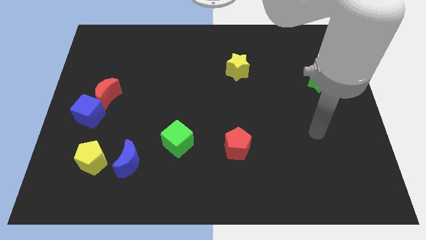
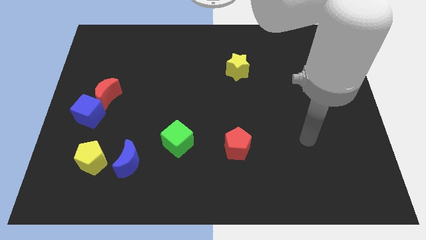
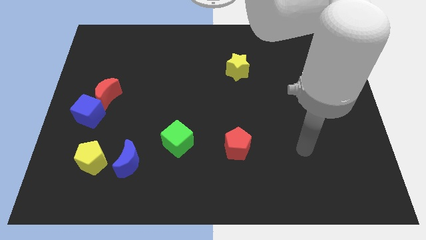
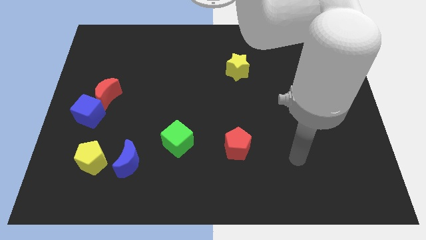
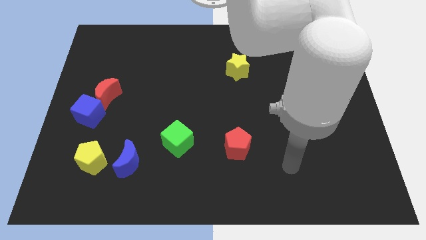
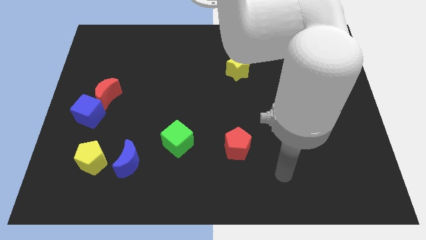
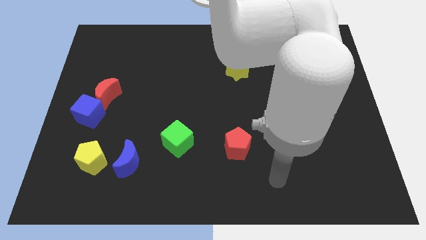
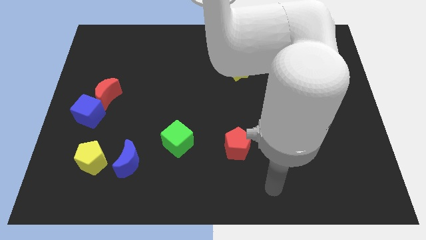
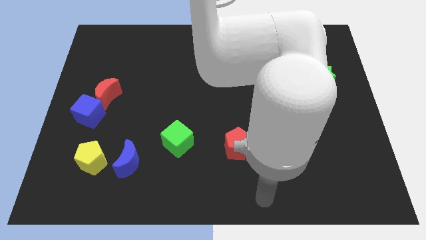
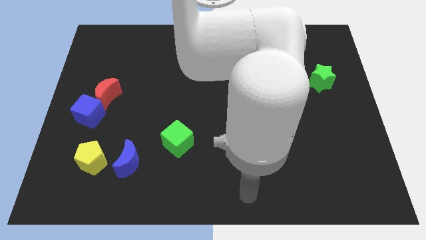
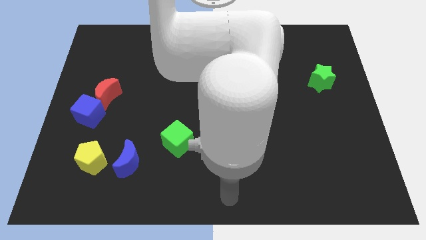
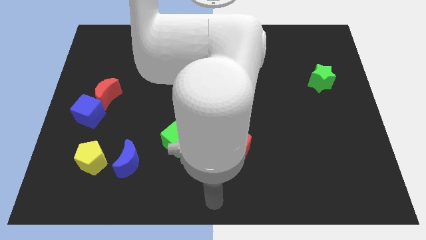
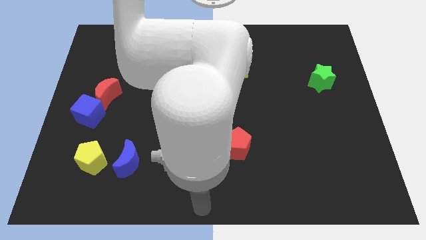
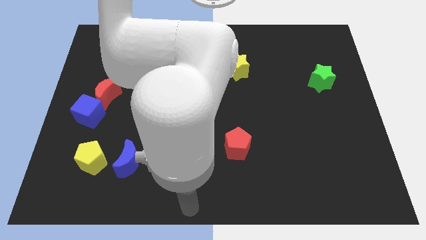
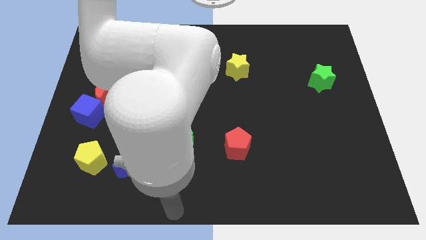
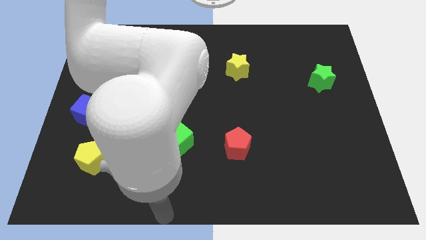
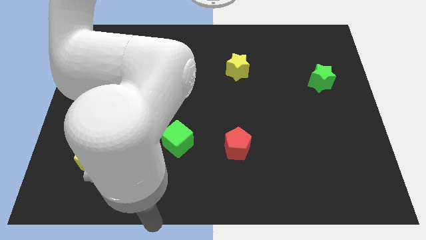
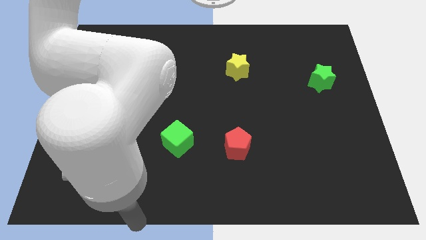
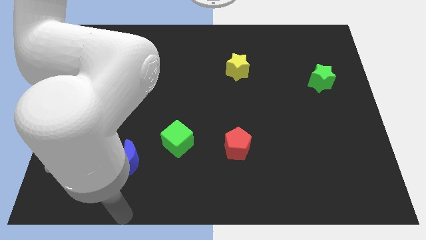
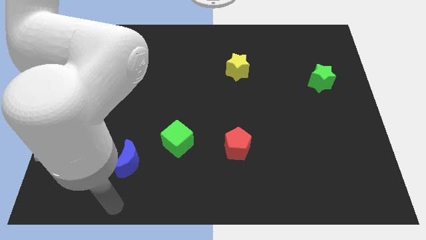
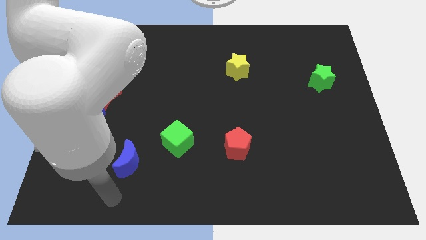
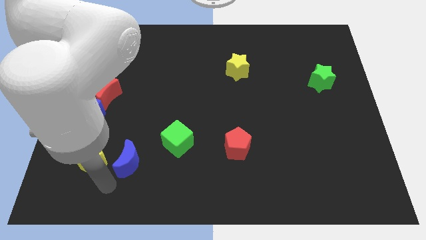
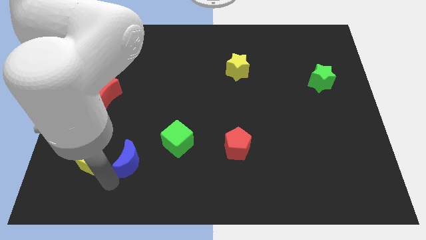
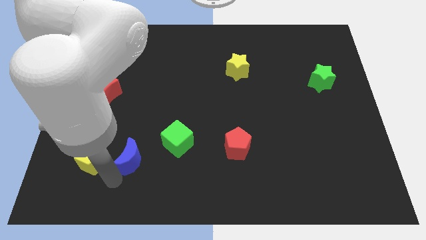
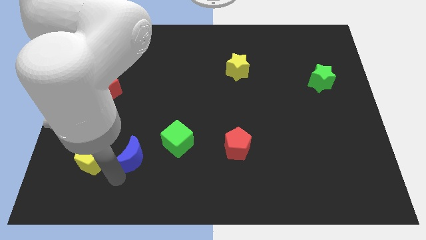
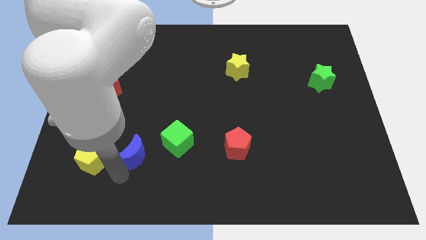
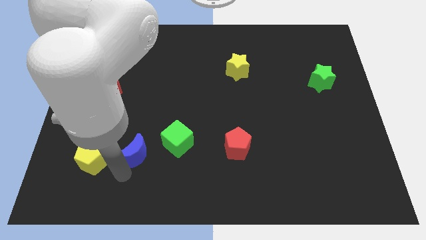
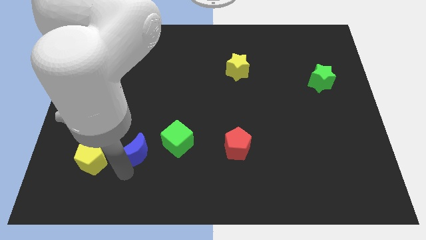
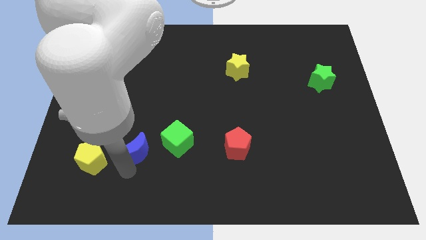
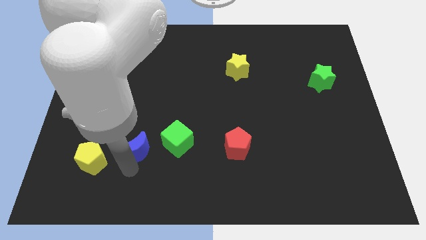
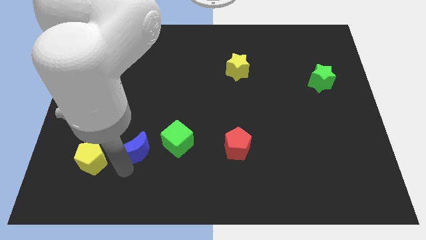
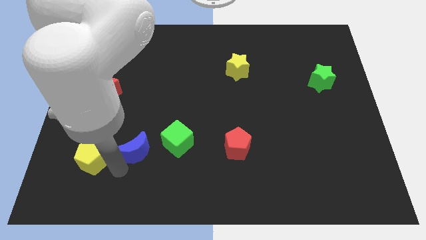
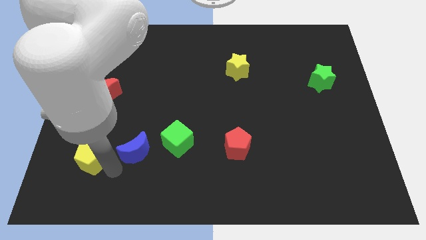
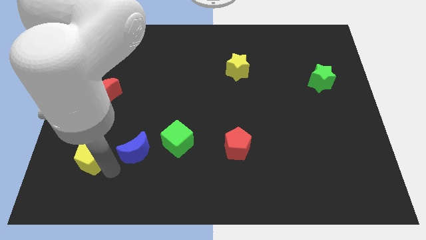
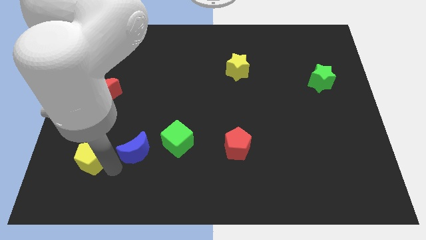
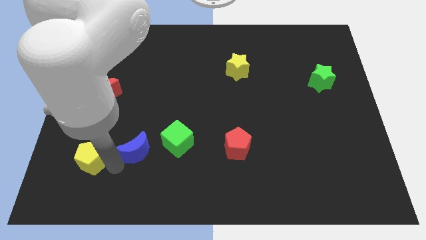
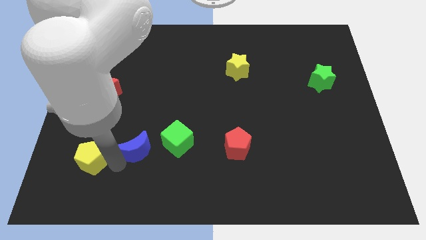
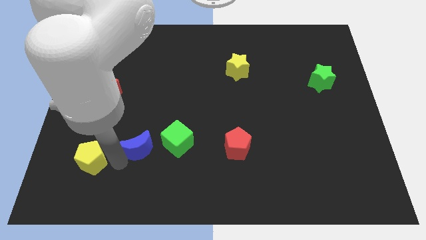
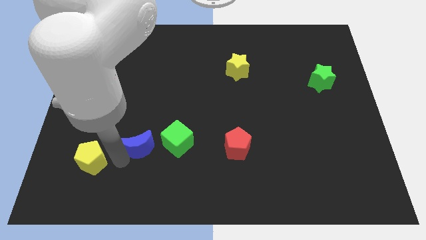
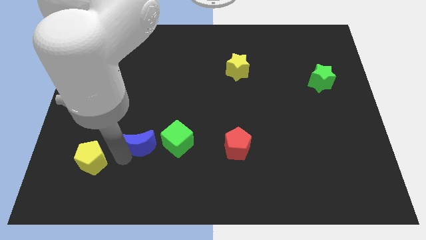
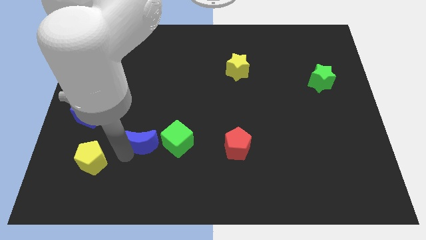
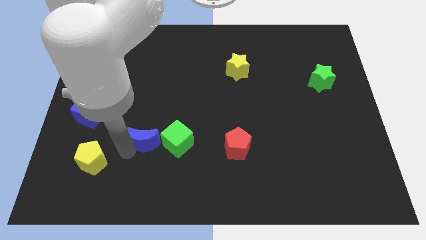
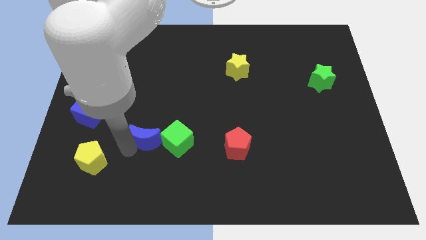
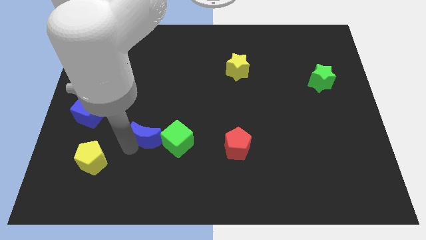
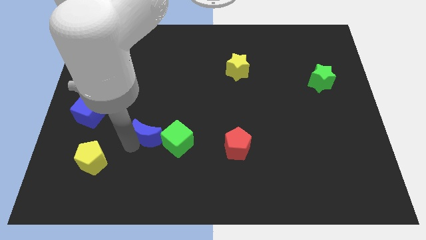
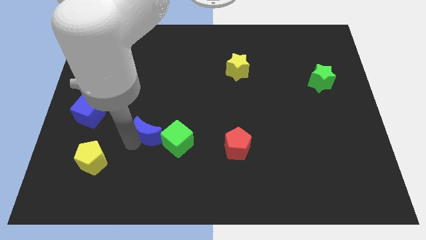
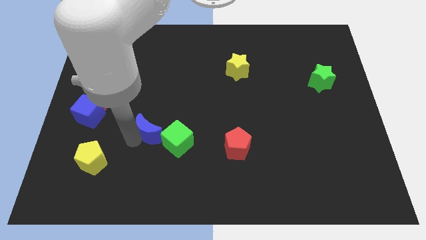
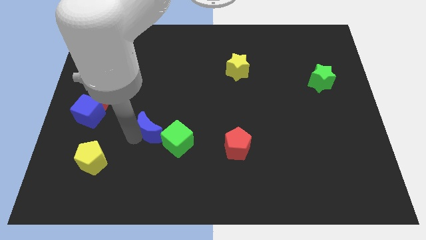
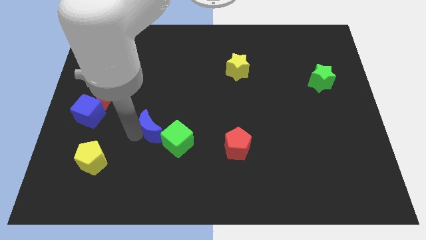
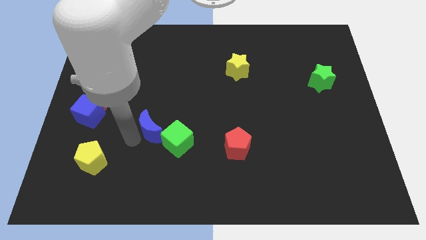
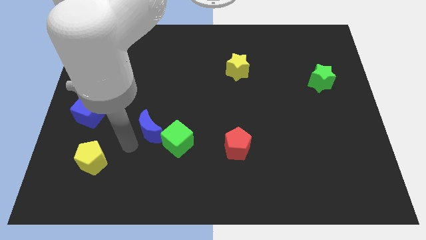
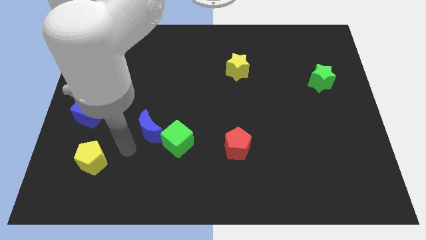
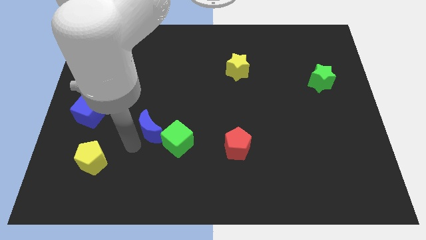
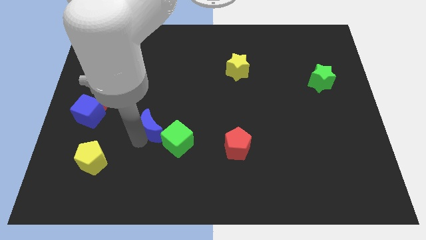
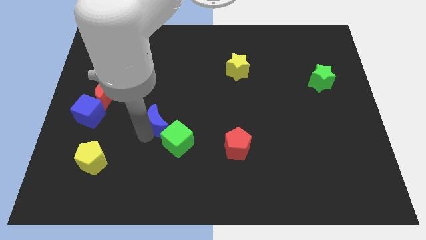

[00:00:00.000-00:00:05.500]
push the blue moon above the green cube

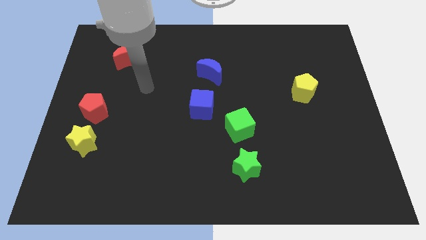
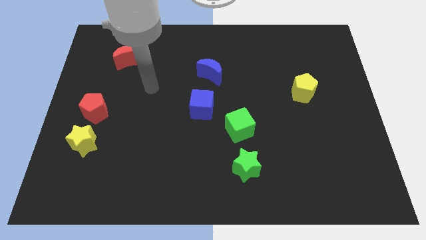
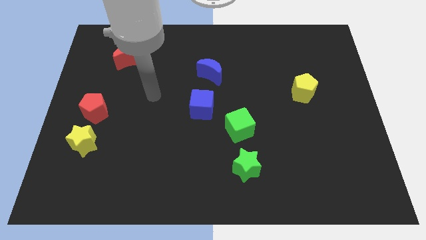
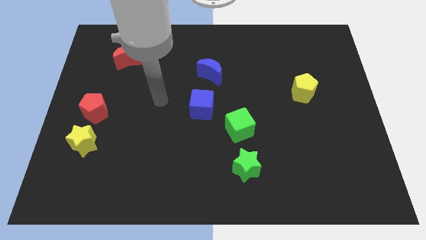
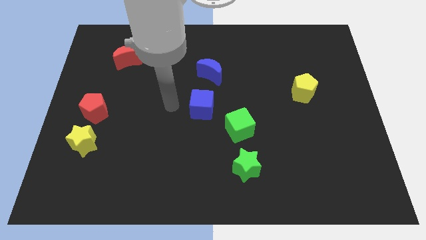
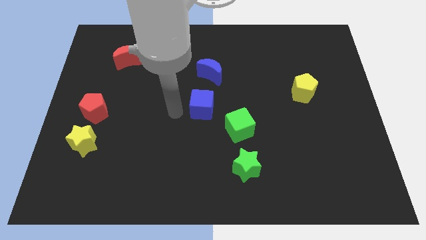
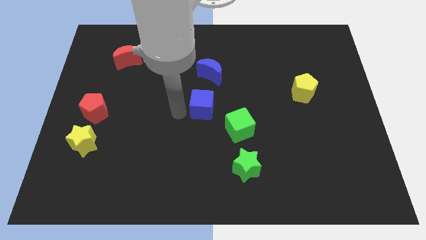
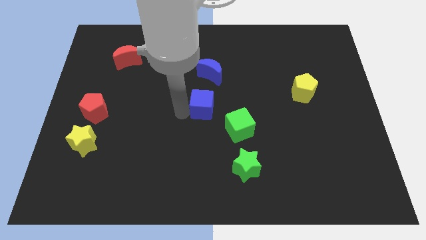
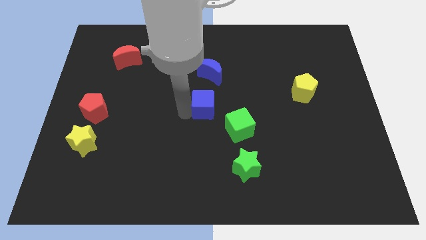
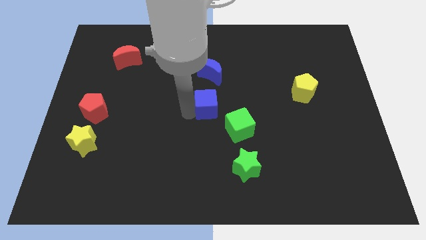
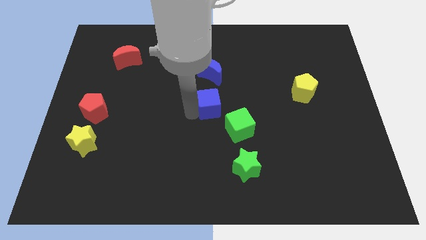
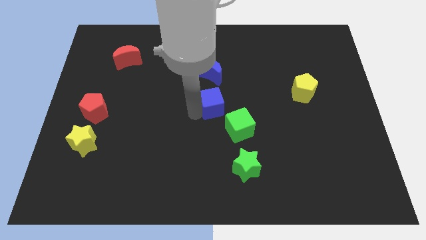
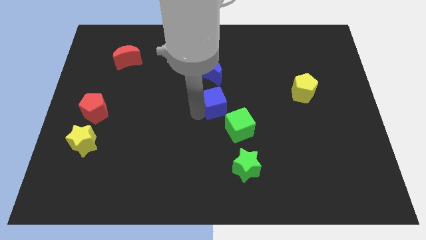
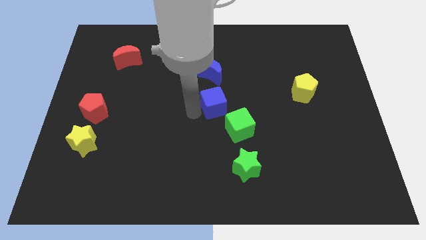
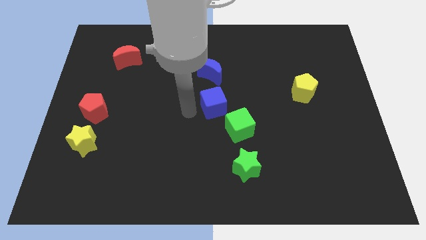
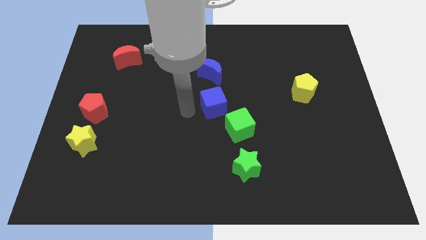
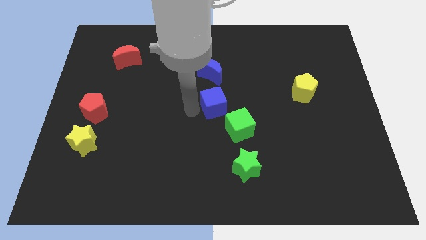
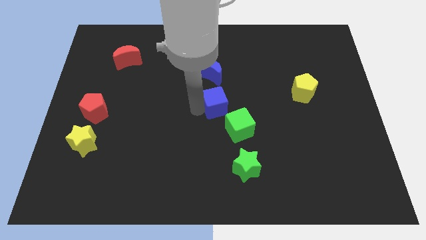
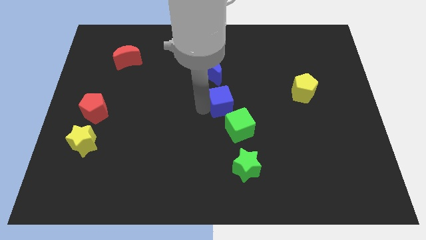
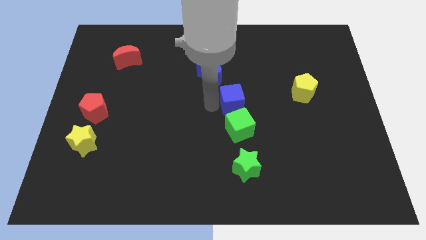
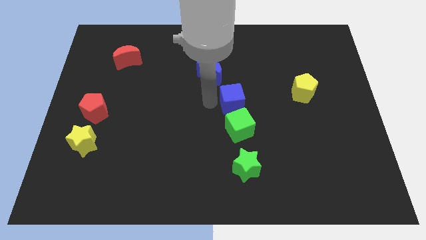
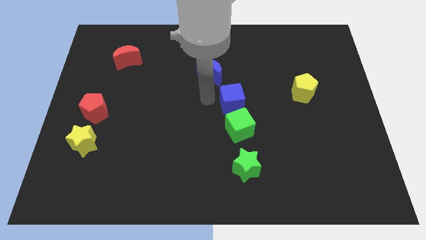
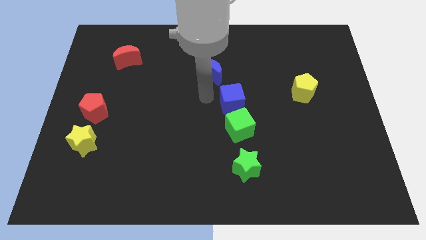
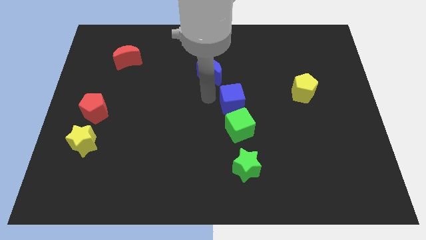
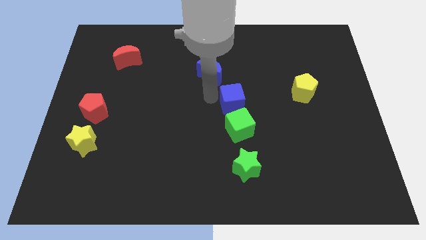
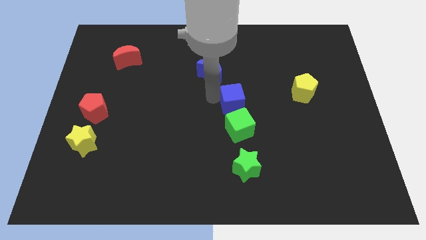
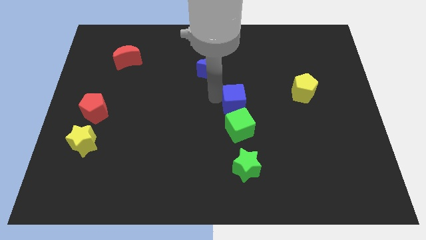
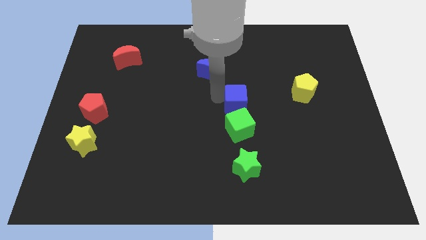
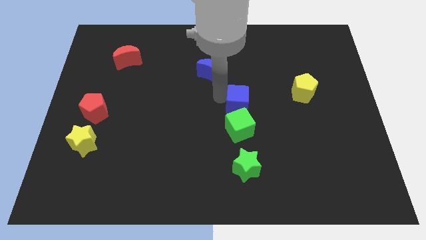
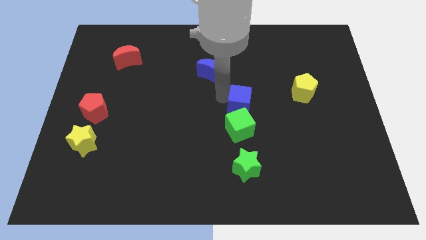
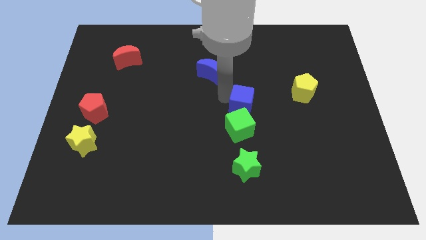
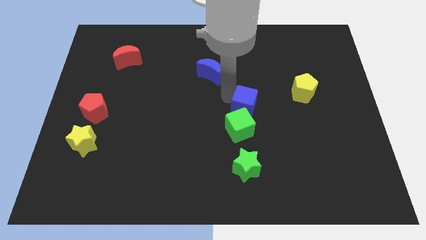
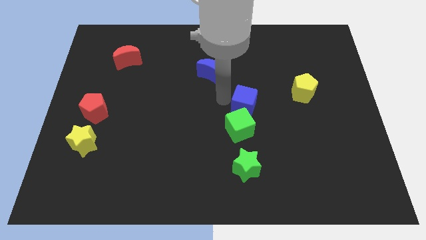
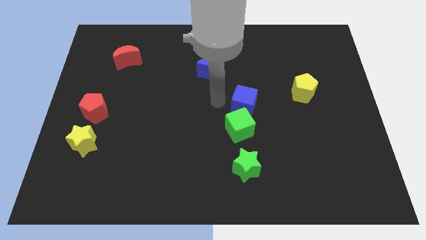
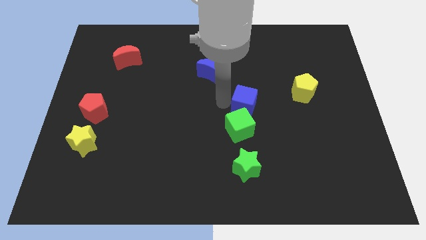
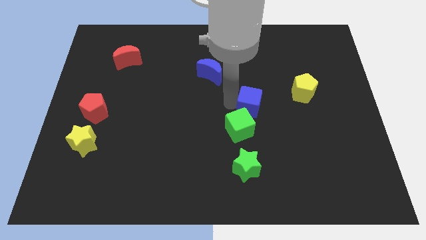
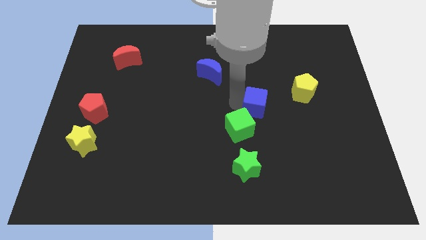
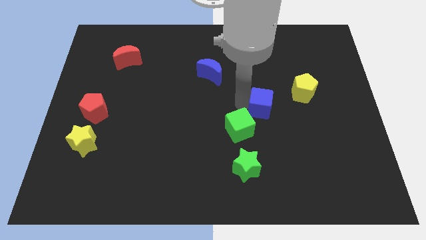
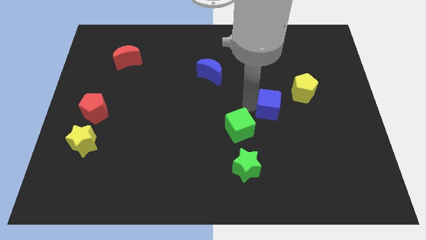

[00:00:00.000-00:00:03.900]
put the blue cube diagonally down and to the left of the yellow pentagon
